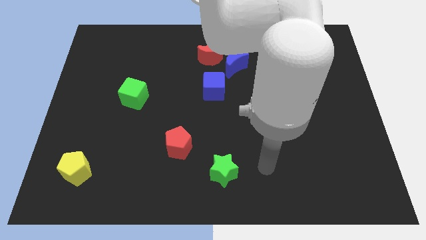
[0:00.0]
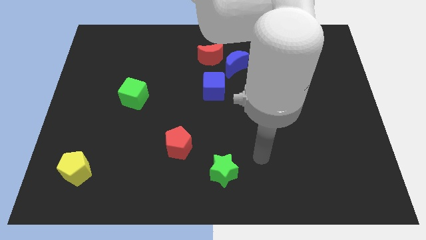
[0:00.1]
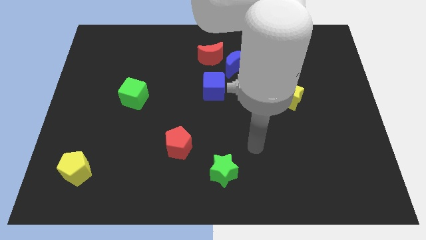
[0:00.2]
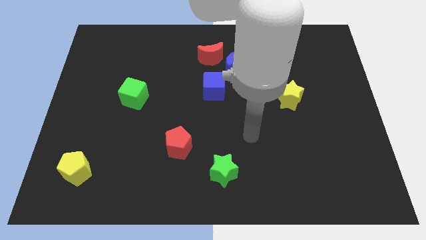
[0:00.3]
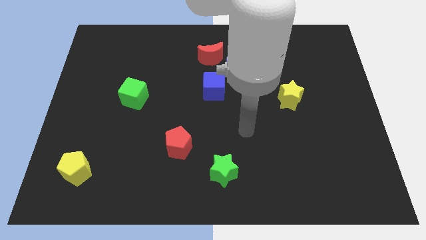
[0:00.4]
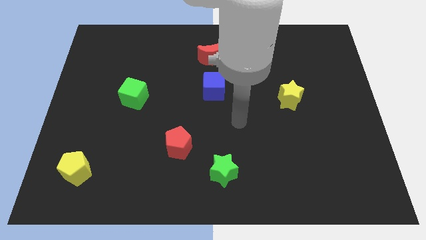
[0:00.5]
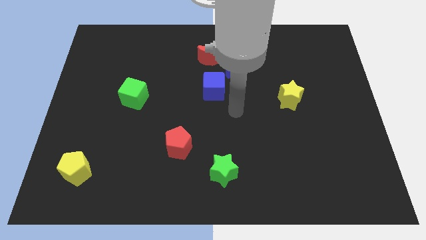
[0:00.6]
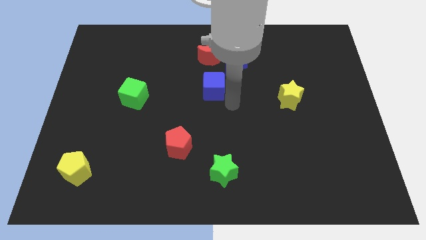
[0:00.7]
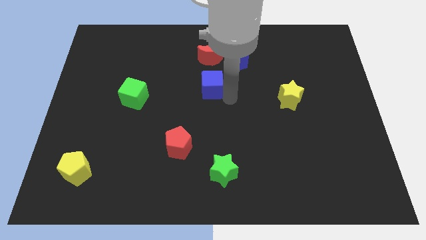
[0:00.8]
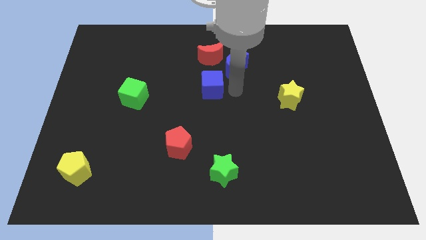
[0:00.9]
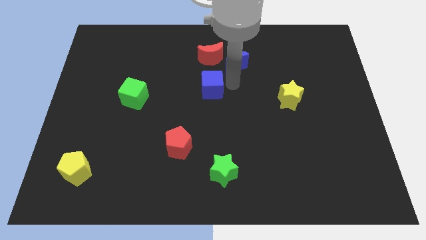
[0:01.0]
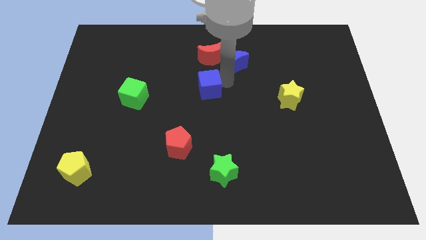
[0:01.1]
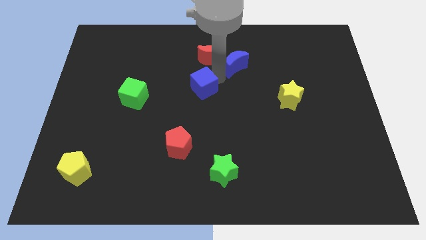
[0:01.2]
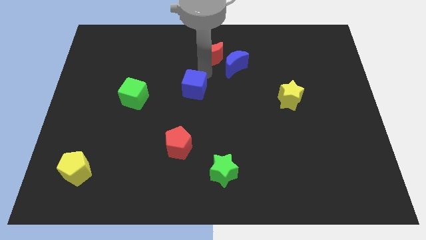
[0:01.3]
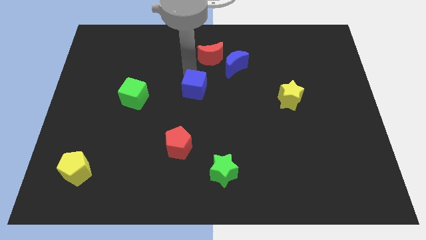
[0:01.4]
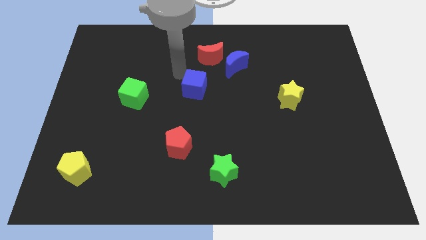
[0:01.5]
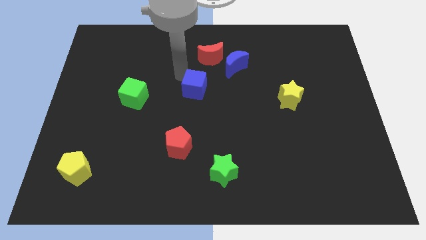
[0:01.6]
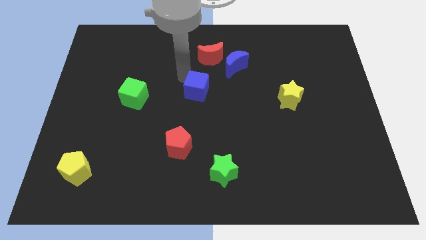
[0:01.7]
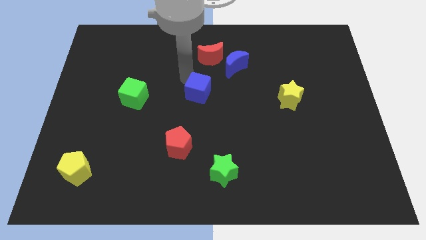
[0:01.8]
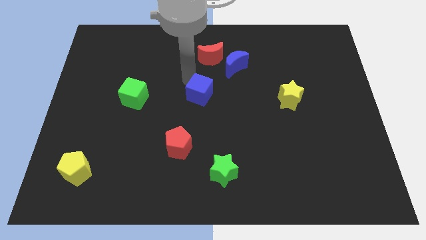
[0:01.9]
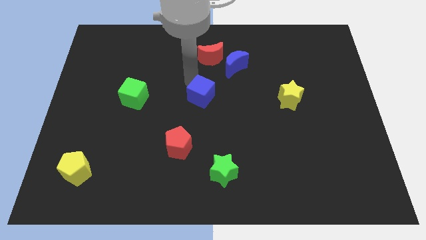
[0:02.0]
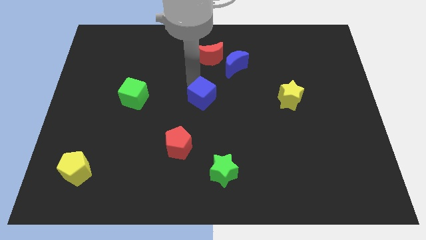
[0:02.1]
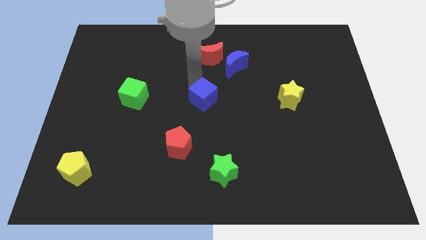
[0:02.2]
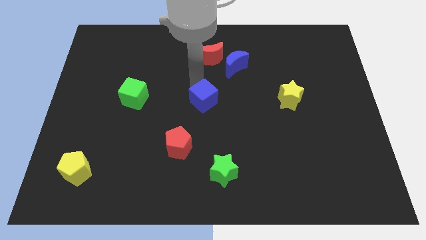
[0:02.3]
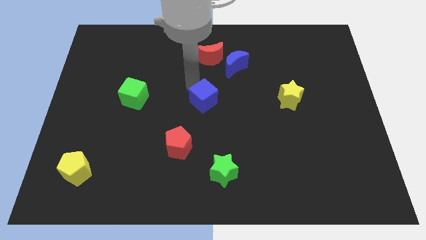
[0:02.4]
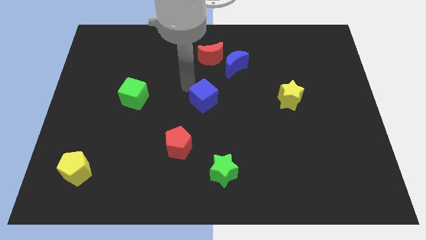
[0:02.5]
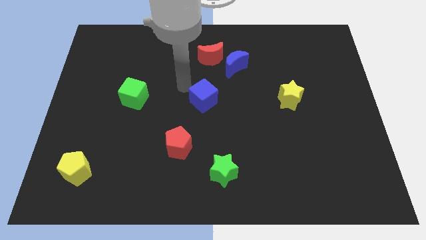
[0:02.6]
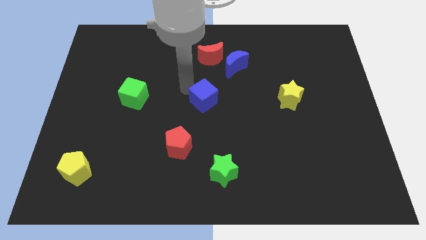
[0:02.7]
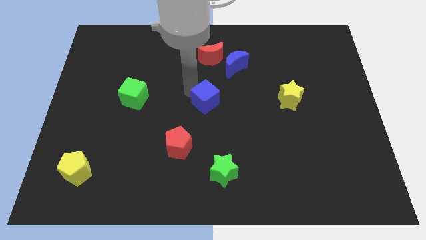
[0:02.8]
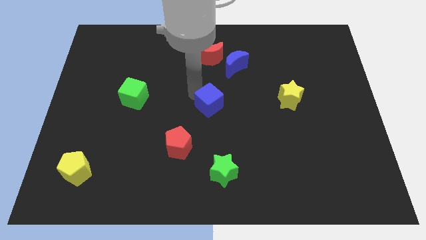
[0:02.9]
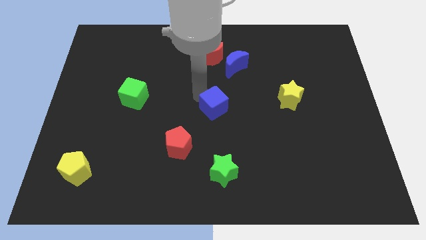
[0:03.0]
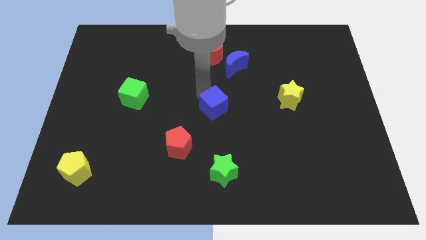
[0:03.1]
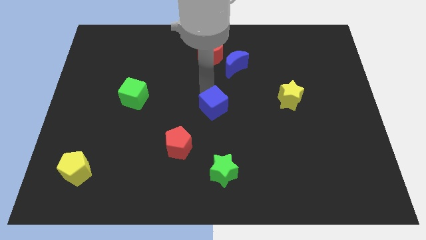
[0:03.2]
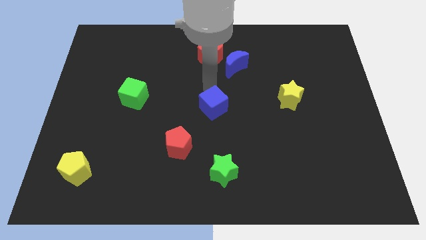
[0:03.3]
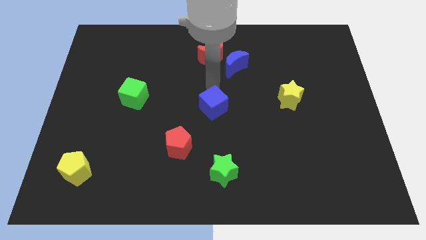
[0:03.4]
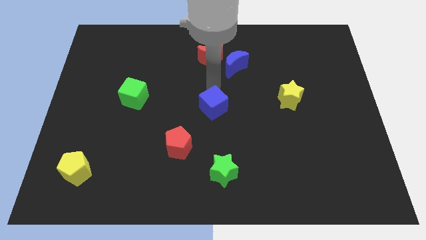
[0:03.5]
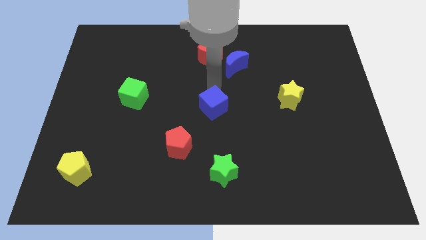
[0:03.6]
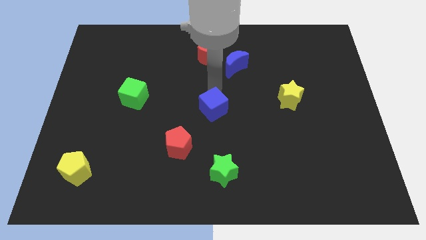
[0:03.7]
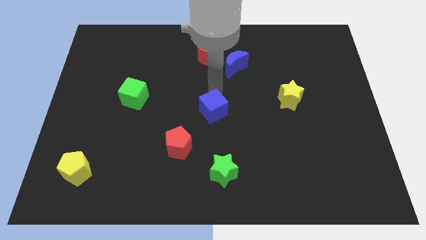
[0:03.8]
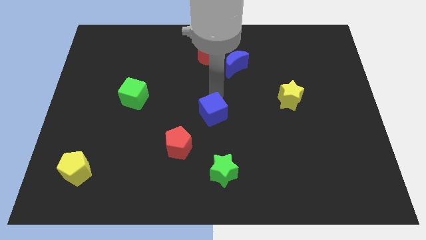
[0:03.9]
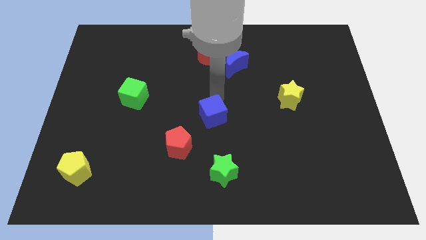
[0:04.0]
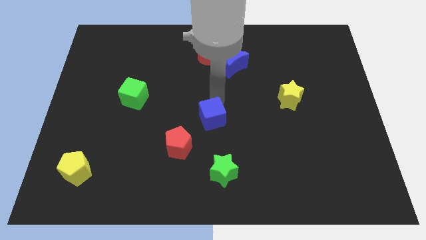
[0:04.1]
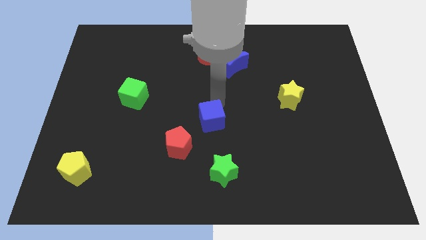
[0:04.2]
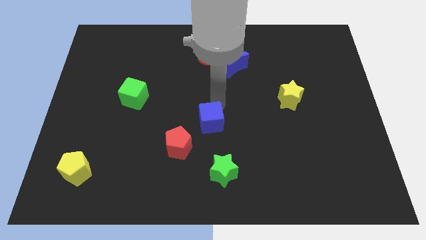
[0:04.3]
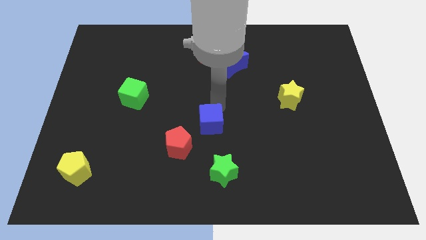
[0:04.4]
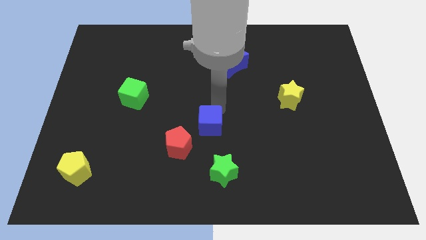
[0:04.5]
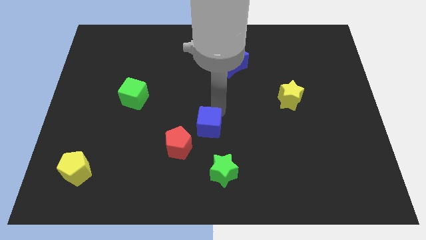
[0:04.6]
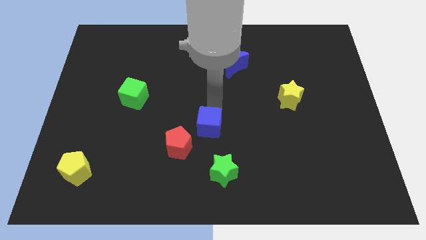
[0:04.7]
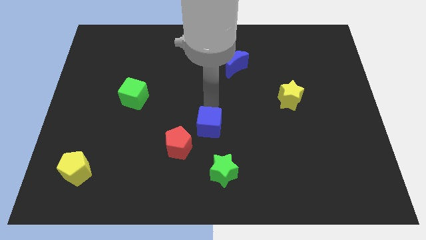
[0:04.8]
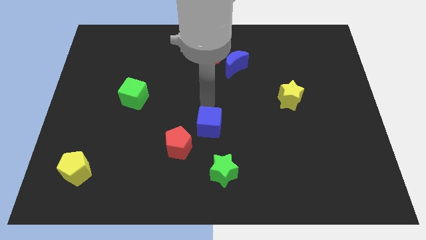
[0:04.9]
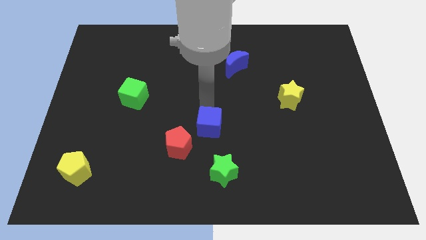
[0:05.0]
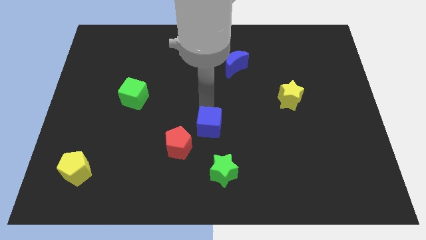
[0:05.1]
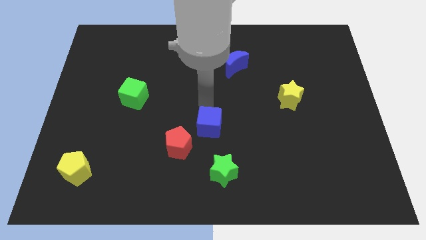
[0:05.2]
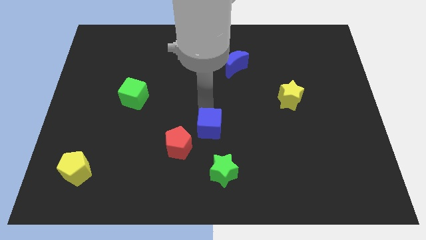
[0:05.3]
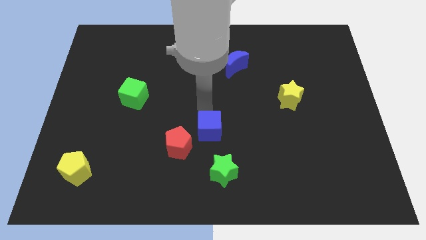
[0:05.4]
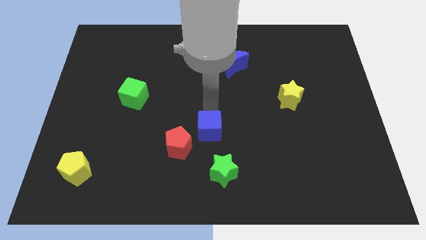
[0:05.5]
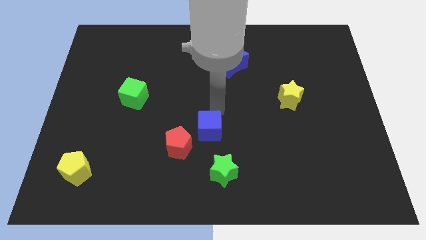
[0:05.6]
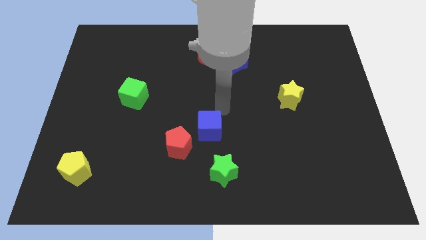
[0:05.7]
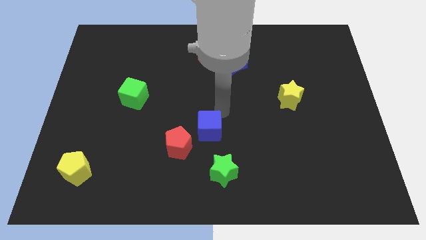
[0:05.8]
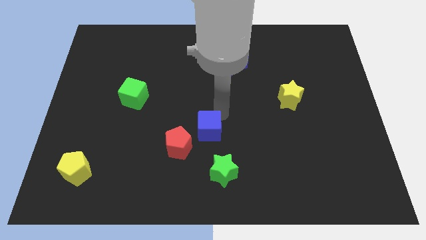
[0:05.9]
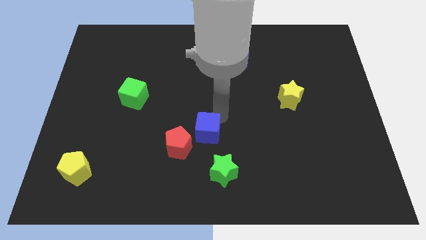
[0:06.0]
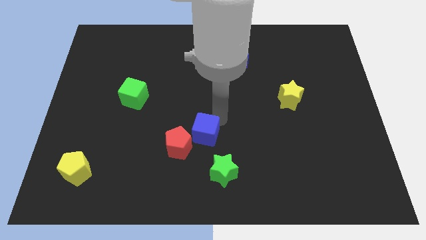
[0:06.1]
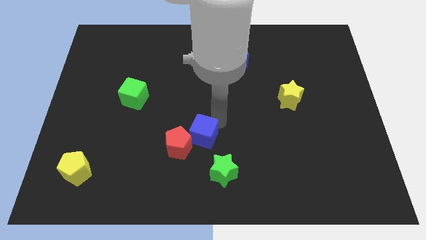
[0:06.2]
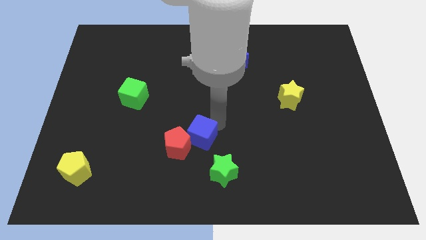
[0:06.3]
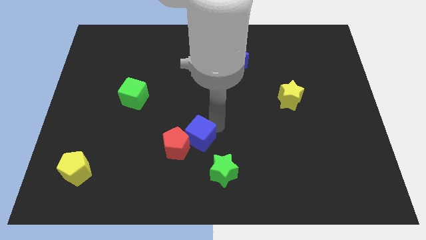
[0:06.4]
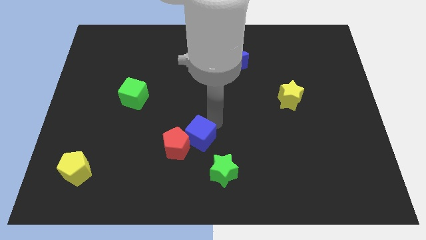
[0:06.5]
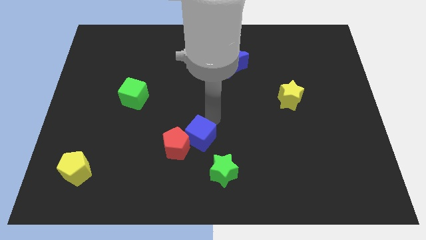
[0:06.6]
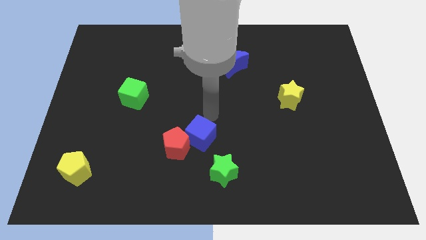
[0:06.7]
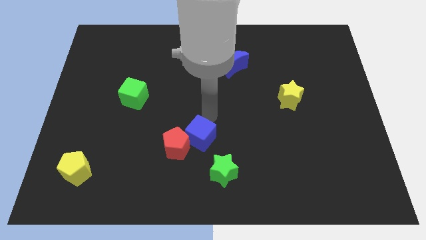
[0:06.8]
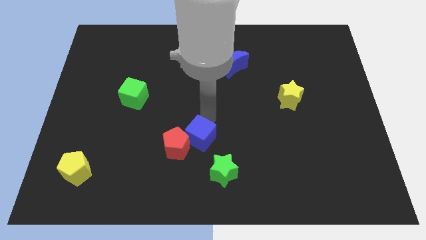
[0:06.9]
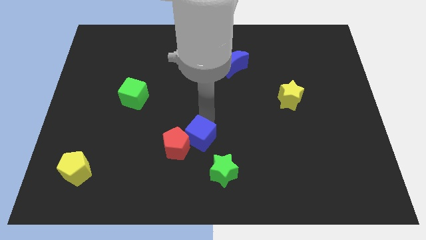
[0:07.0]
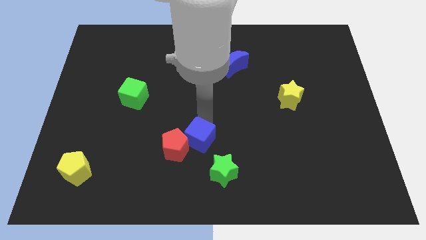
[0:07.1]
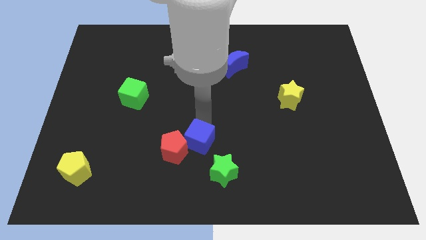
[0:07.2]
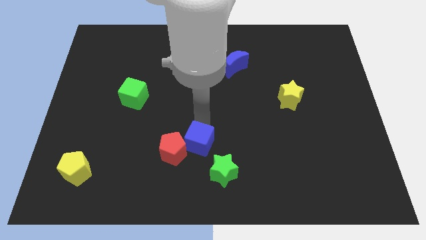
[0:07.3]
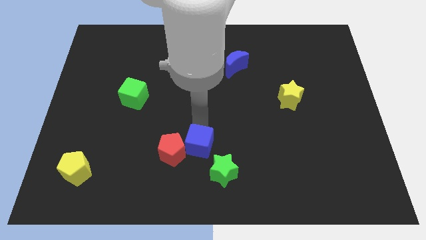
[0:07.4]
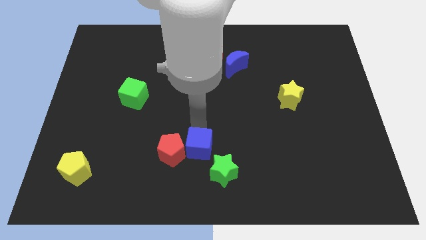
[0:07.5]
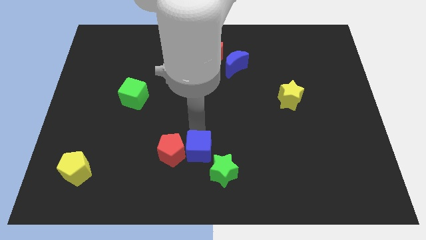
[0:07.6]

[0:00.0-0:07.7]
slide the blue cube to the bottom right side of the red pentagon
